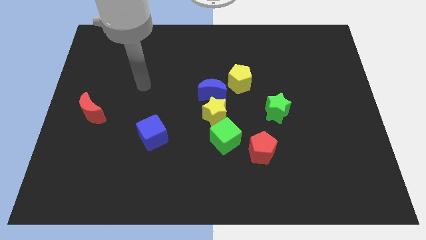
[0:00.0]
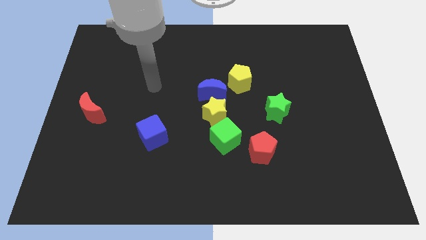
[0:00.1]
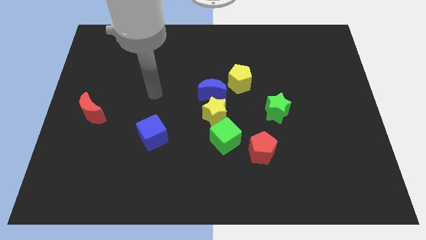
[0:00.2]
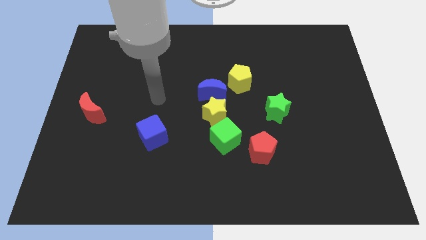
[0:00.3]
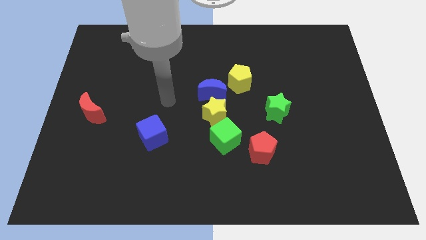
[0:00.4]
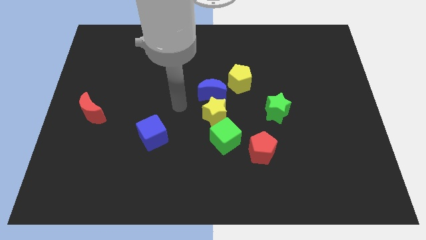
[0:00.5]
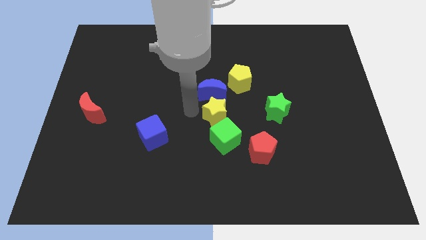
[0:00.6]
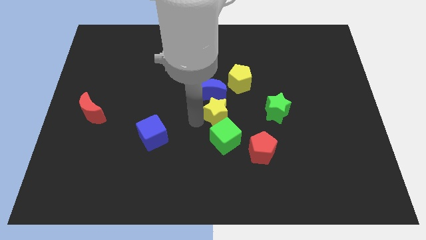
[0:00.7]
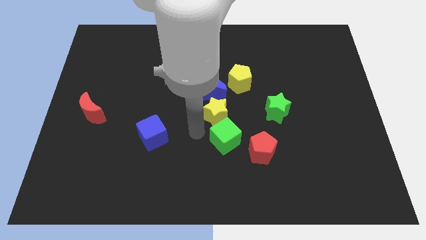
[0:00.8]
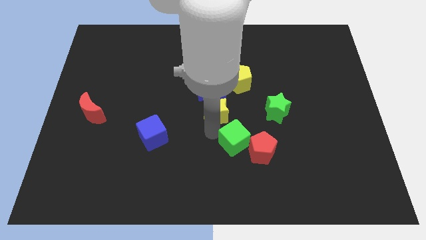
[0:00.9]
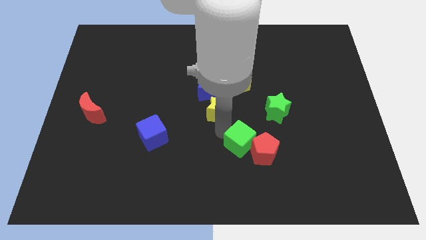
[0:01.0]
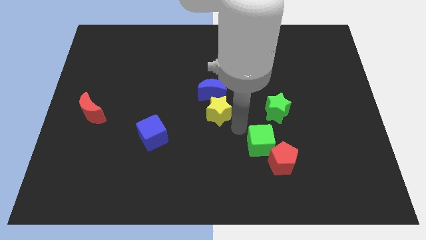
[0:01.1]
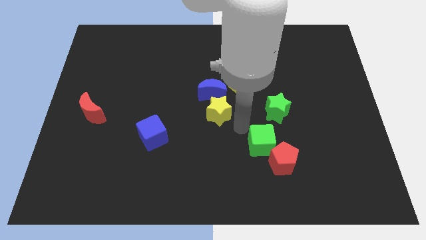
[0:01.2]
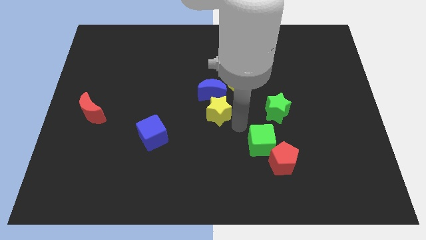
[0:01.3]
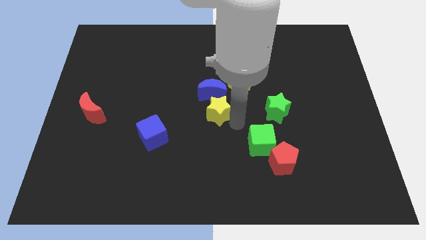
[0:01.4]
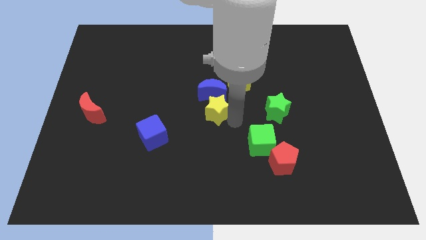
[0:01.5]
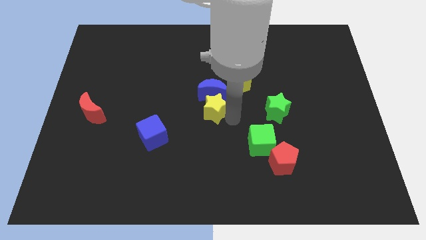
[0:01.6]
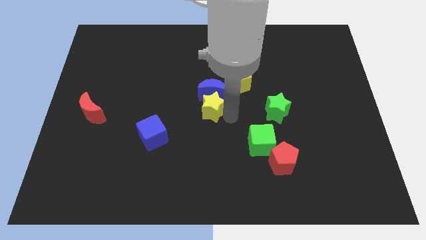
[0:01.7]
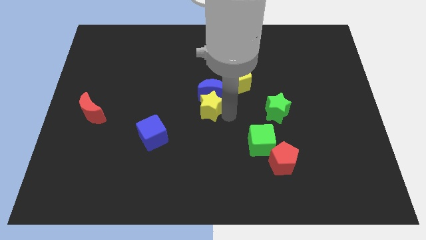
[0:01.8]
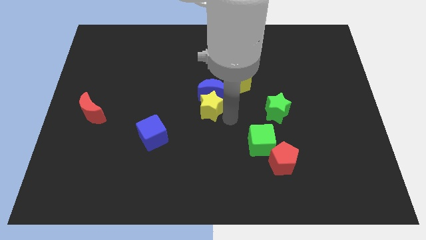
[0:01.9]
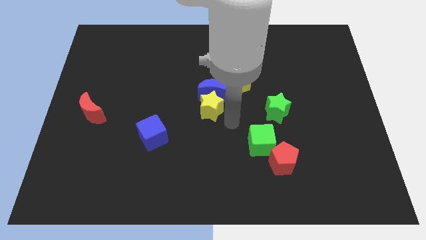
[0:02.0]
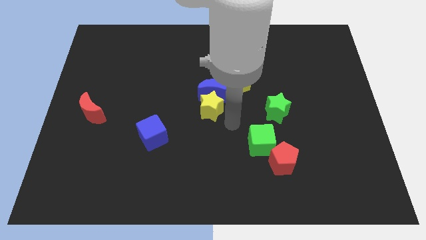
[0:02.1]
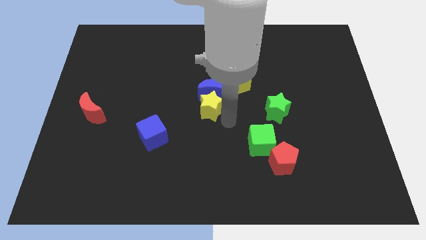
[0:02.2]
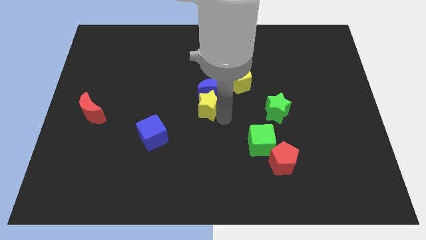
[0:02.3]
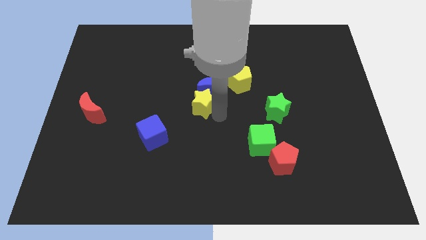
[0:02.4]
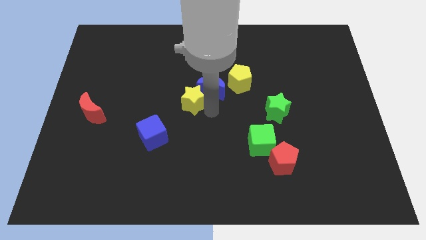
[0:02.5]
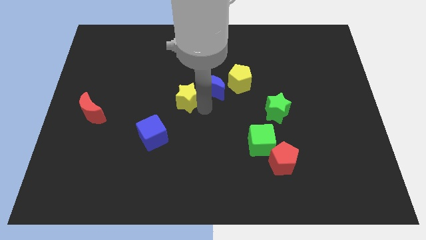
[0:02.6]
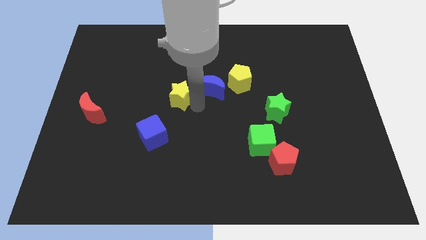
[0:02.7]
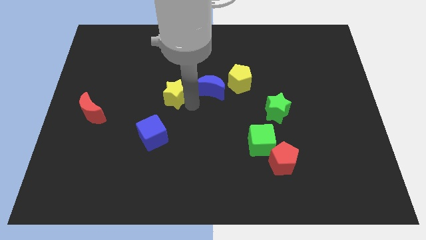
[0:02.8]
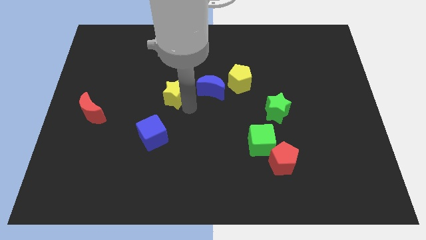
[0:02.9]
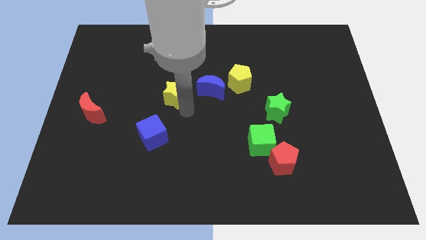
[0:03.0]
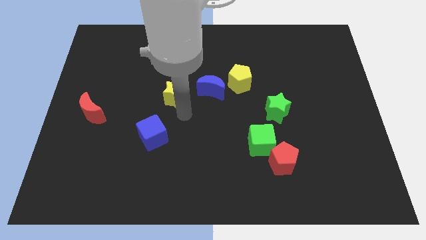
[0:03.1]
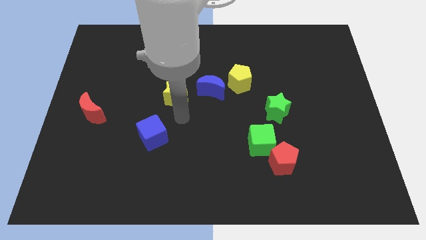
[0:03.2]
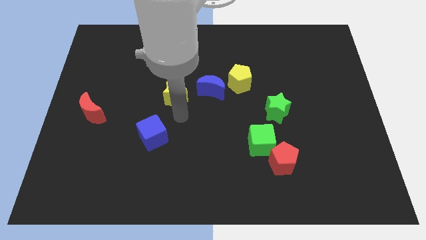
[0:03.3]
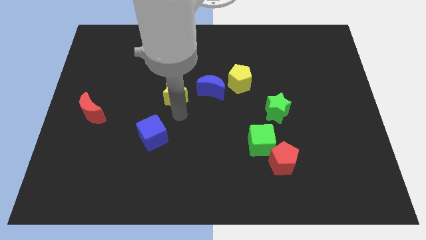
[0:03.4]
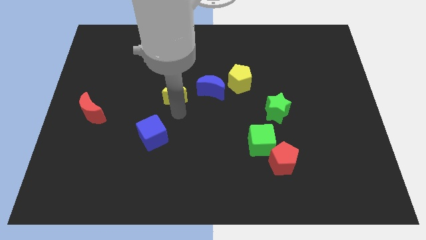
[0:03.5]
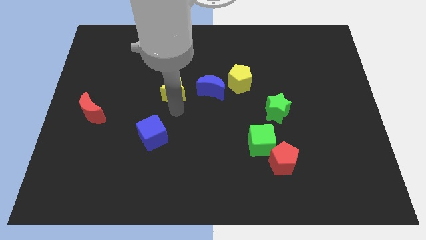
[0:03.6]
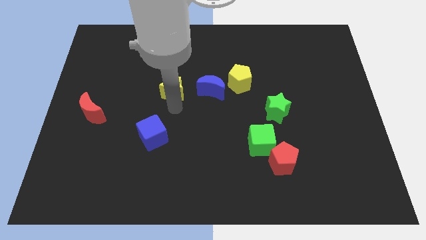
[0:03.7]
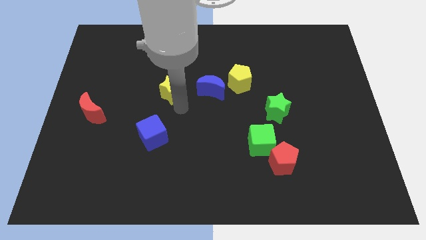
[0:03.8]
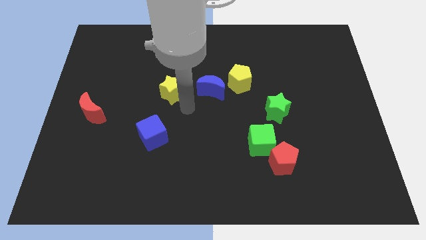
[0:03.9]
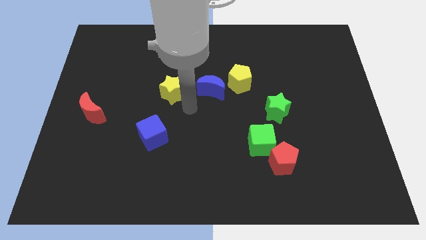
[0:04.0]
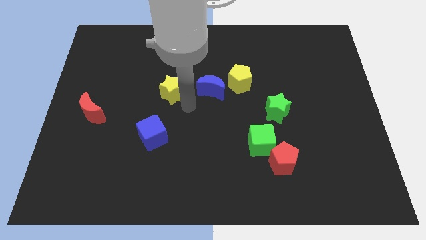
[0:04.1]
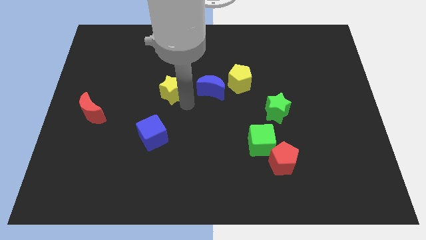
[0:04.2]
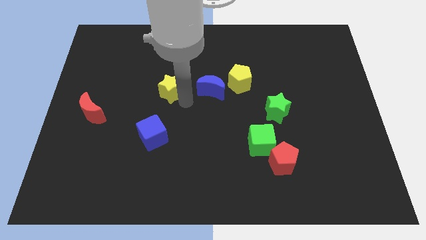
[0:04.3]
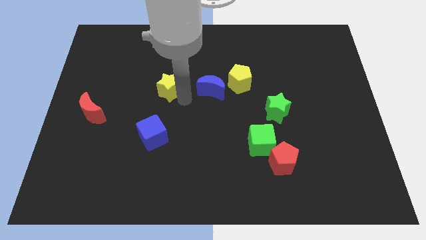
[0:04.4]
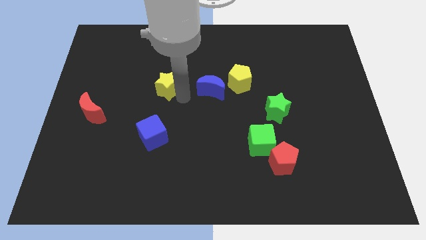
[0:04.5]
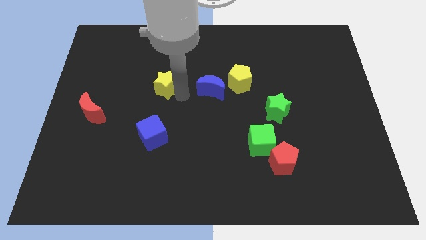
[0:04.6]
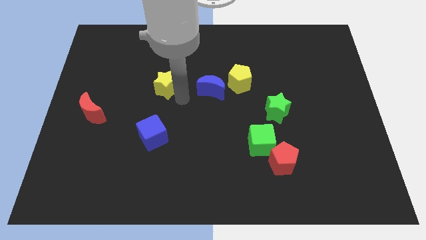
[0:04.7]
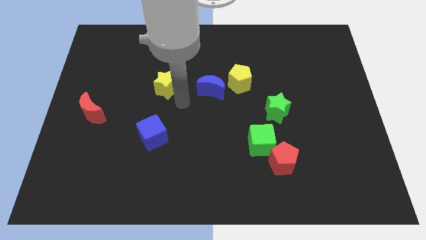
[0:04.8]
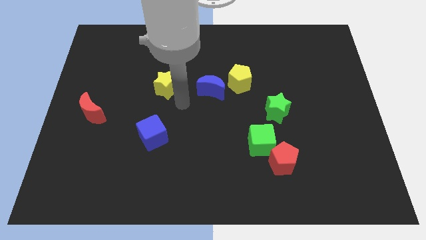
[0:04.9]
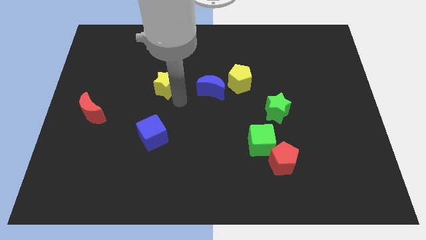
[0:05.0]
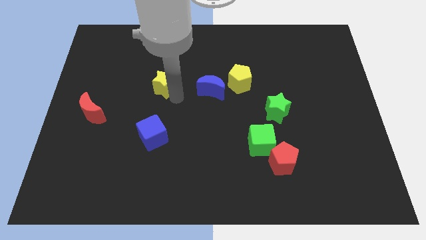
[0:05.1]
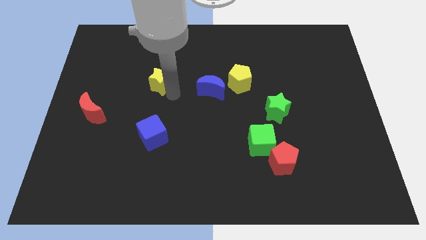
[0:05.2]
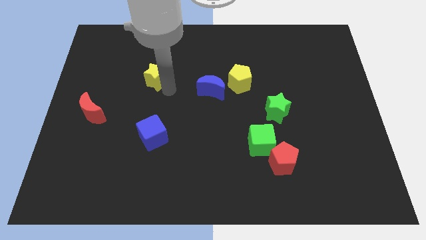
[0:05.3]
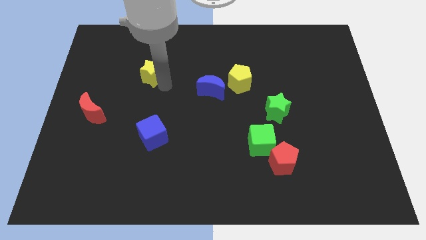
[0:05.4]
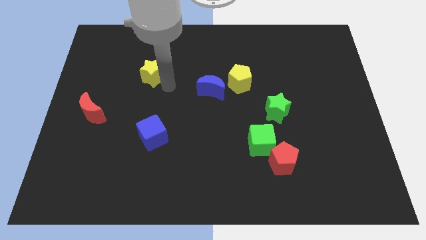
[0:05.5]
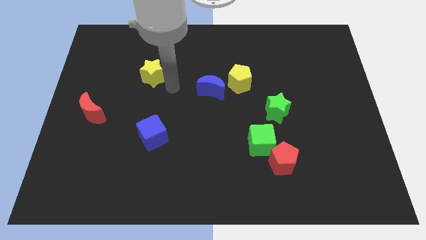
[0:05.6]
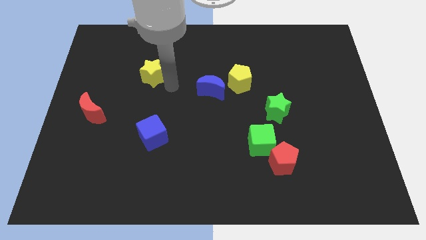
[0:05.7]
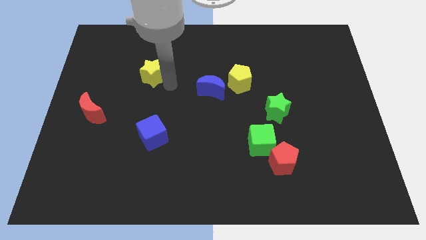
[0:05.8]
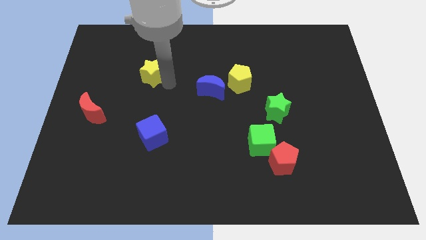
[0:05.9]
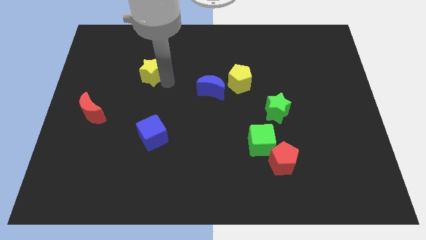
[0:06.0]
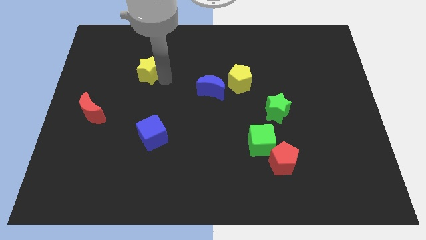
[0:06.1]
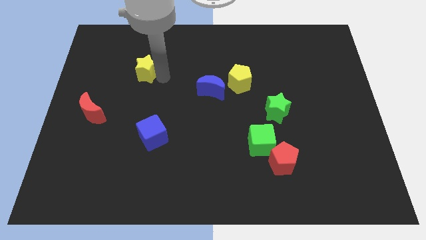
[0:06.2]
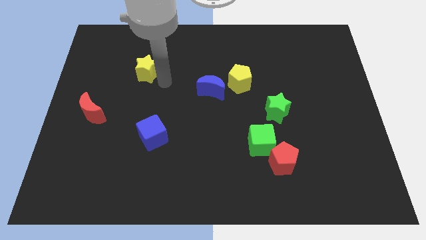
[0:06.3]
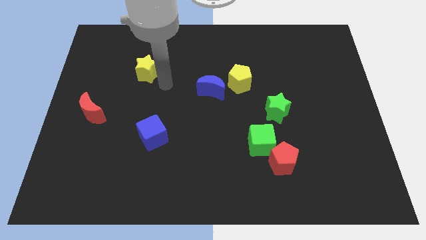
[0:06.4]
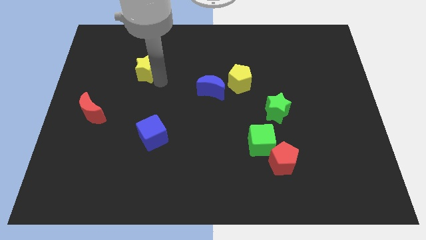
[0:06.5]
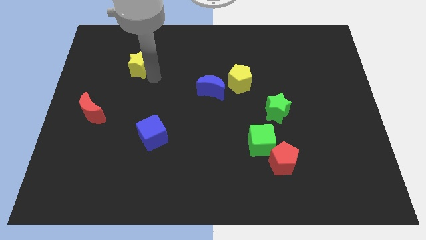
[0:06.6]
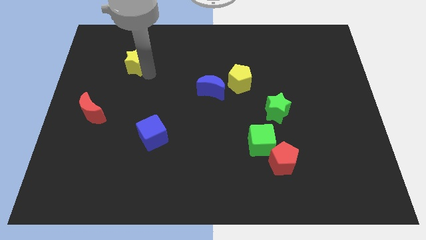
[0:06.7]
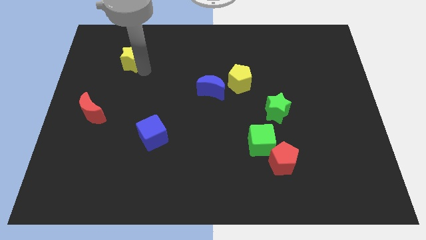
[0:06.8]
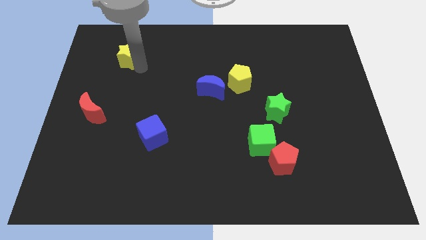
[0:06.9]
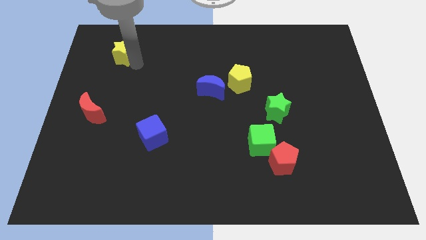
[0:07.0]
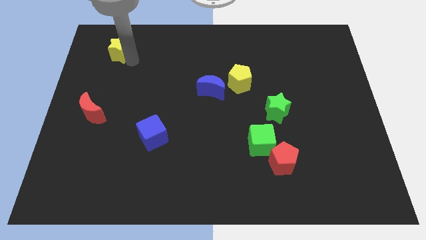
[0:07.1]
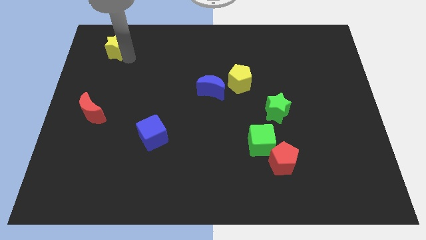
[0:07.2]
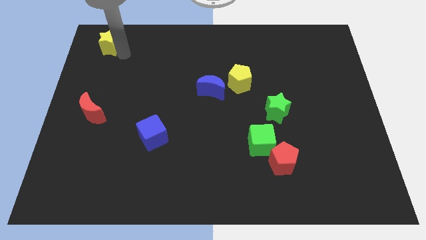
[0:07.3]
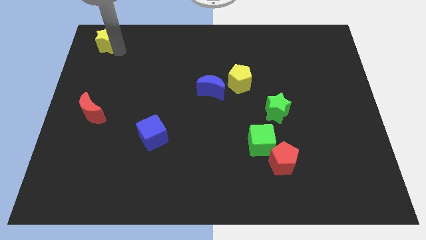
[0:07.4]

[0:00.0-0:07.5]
slide the yellow star to the top left
